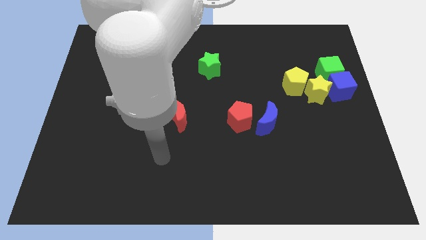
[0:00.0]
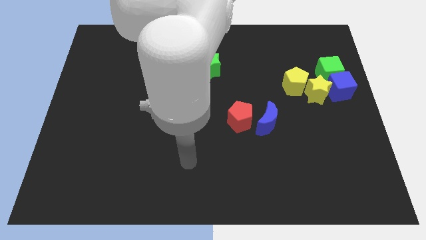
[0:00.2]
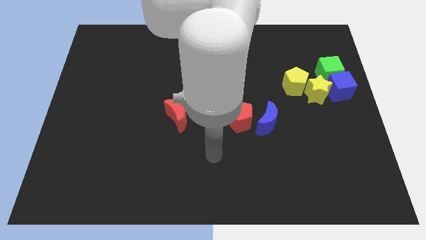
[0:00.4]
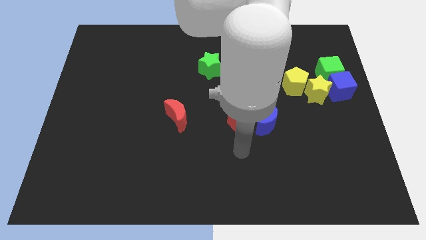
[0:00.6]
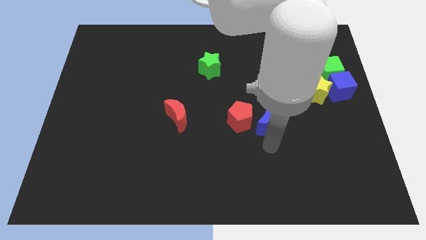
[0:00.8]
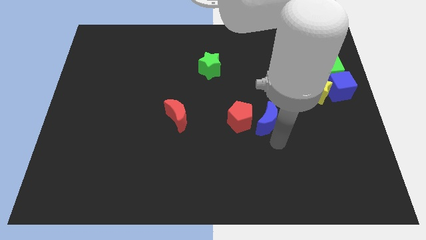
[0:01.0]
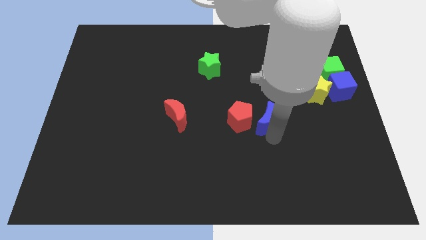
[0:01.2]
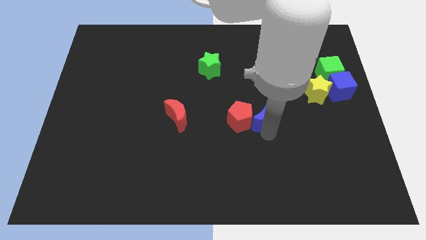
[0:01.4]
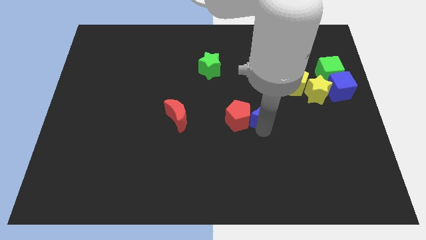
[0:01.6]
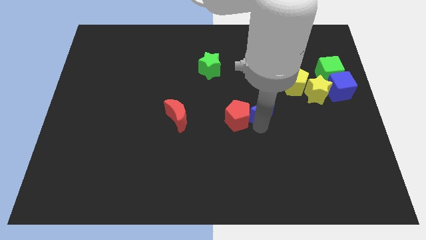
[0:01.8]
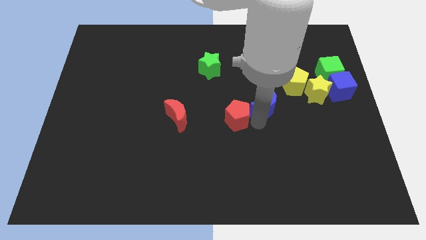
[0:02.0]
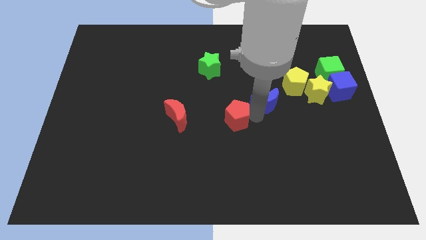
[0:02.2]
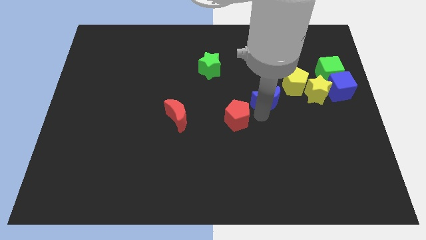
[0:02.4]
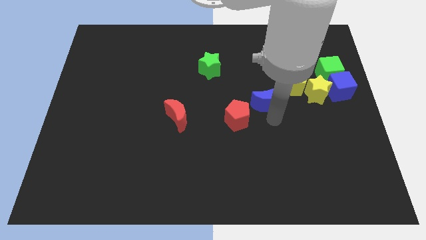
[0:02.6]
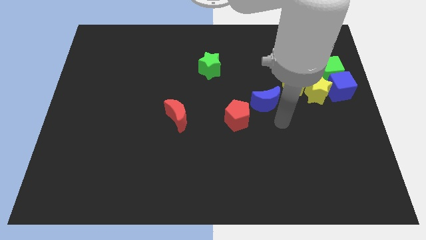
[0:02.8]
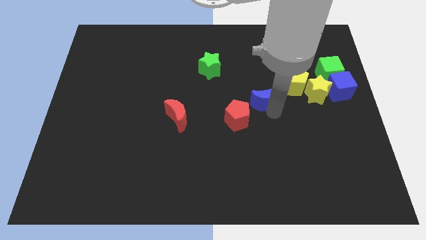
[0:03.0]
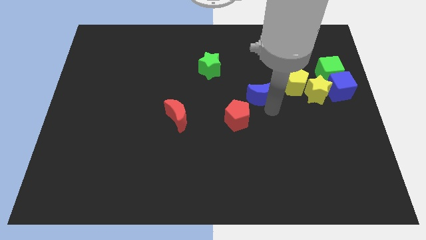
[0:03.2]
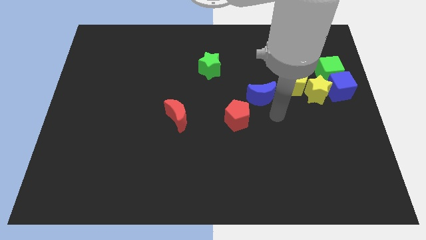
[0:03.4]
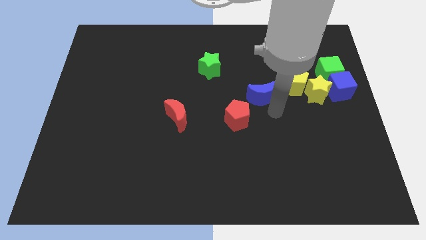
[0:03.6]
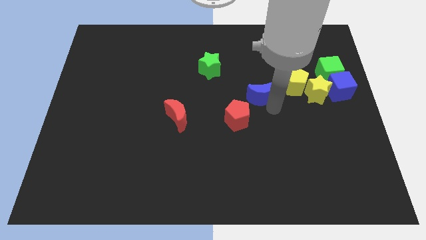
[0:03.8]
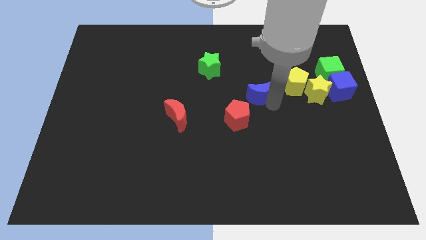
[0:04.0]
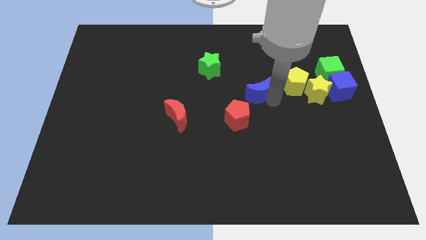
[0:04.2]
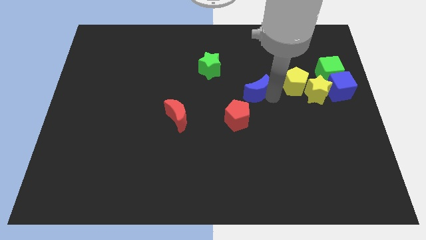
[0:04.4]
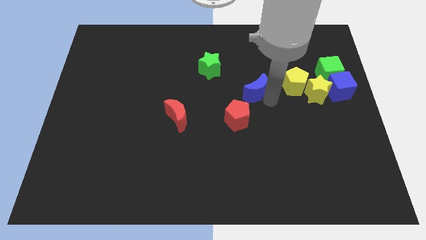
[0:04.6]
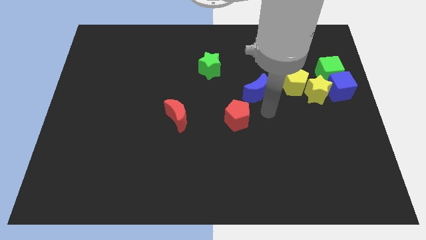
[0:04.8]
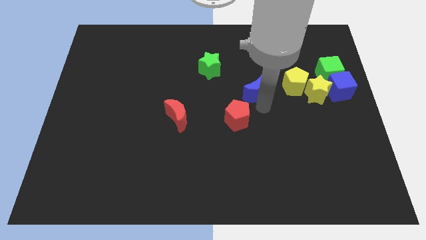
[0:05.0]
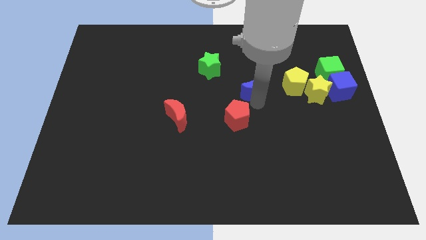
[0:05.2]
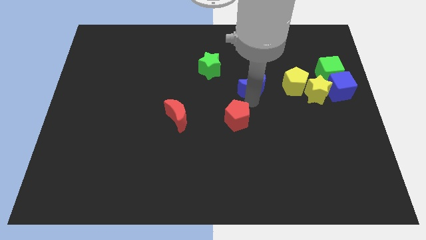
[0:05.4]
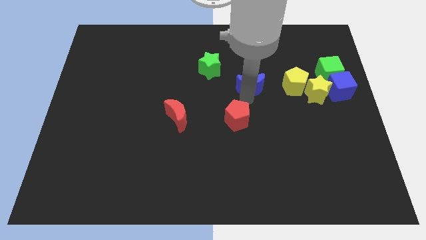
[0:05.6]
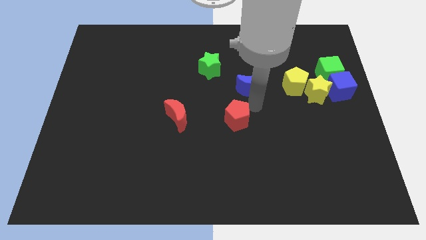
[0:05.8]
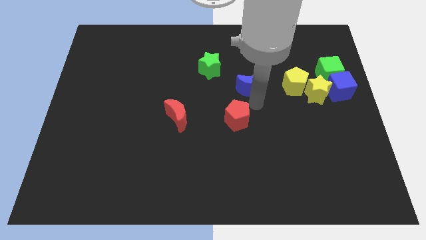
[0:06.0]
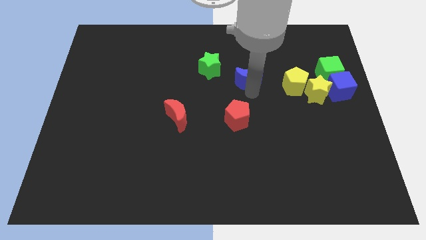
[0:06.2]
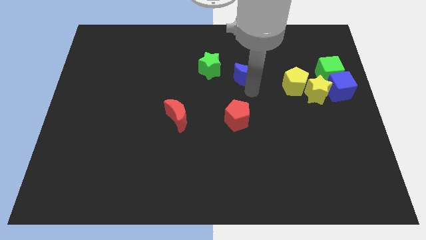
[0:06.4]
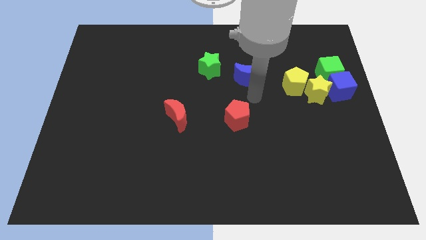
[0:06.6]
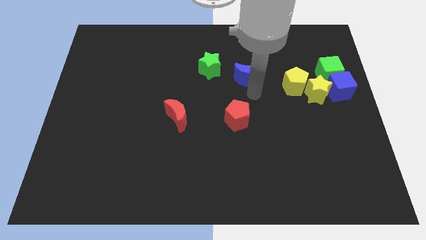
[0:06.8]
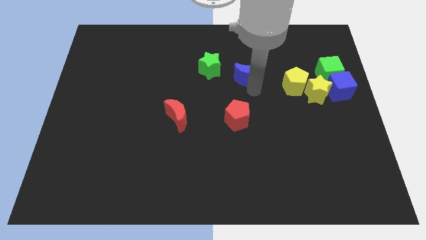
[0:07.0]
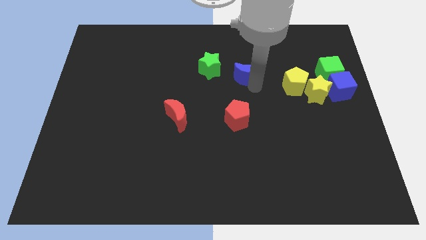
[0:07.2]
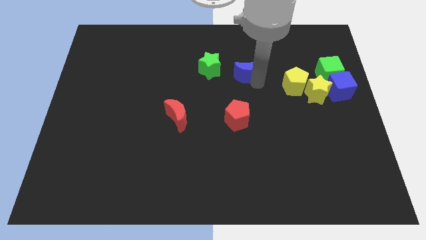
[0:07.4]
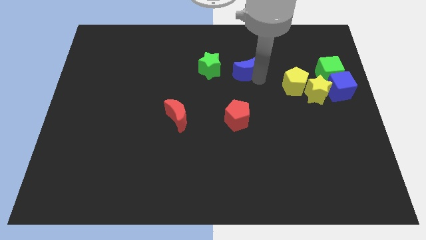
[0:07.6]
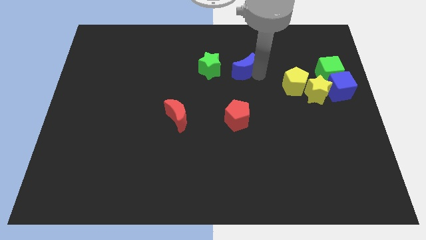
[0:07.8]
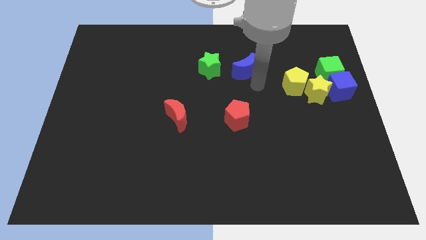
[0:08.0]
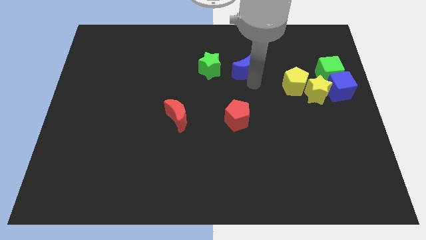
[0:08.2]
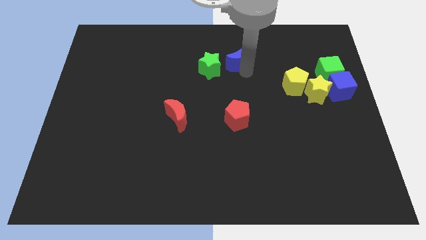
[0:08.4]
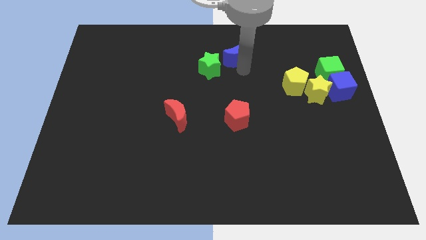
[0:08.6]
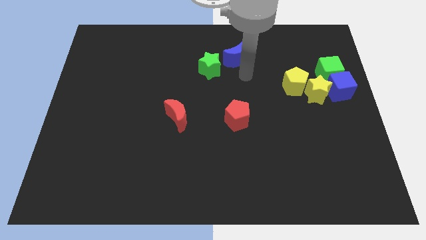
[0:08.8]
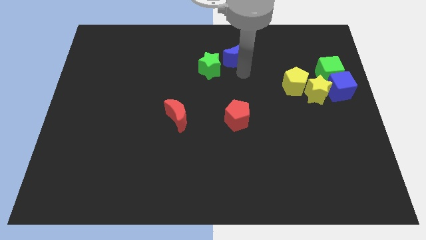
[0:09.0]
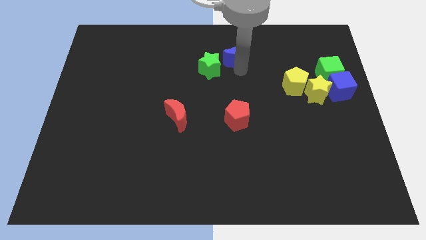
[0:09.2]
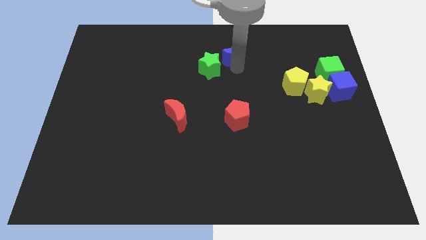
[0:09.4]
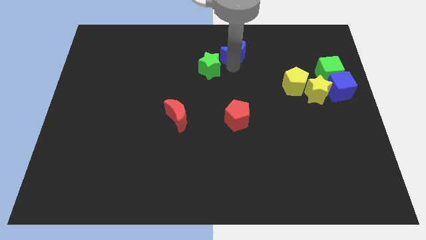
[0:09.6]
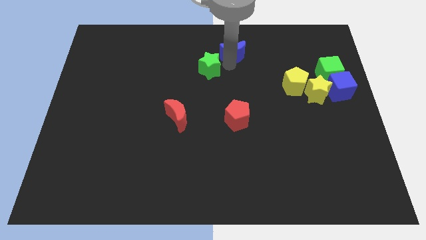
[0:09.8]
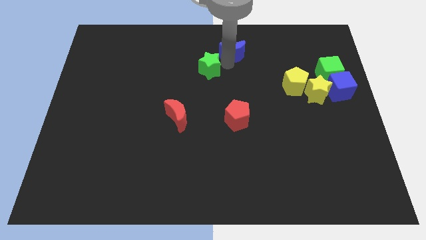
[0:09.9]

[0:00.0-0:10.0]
move the blue moon to the towards your base

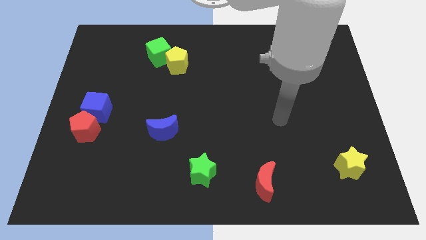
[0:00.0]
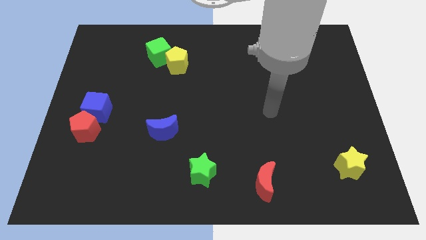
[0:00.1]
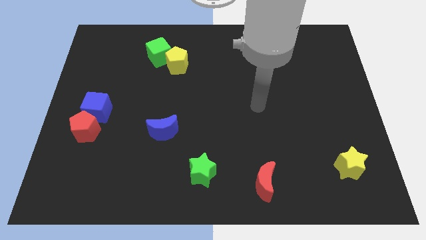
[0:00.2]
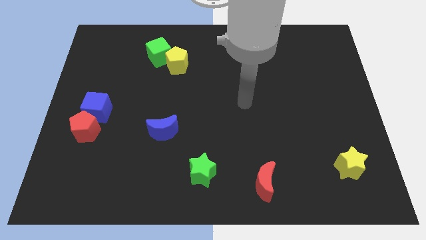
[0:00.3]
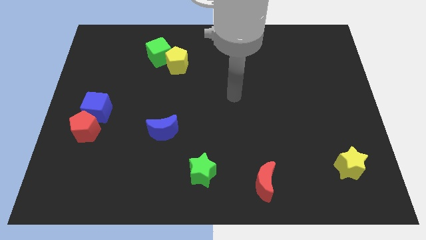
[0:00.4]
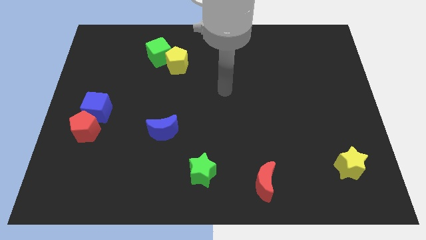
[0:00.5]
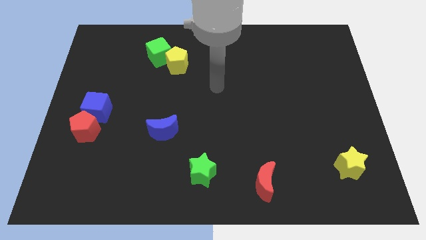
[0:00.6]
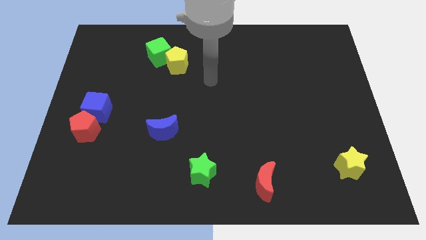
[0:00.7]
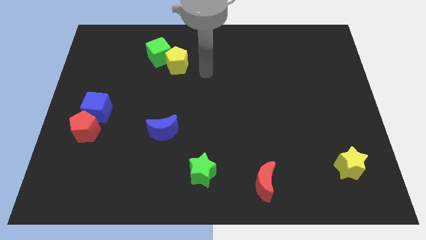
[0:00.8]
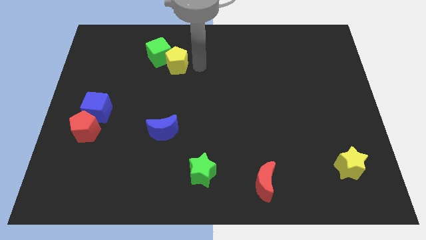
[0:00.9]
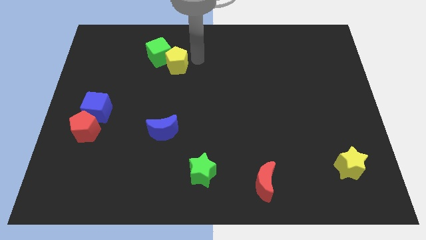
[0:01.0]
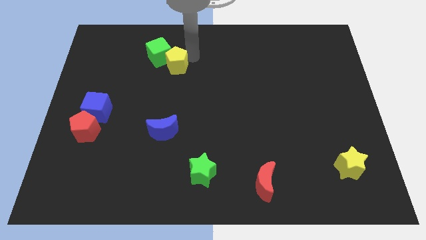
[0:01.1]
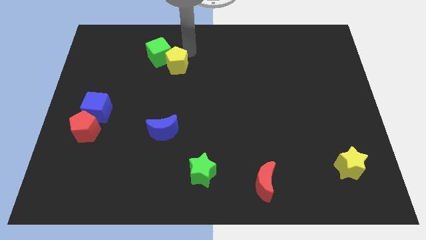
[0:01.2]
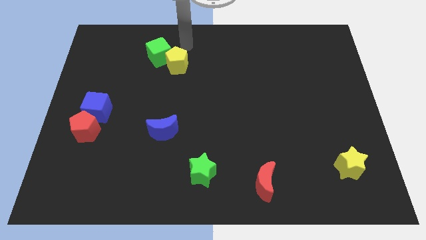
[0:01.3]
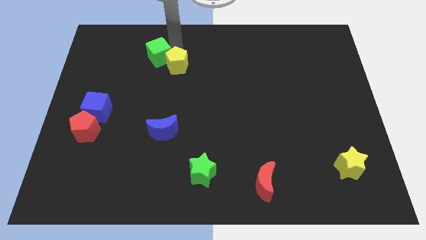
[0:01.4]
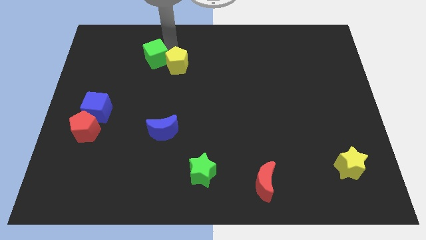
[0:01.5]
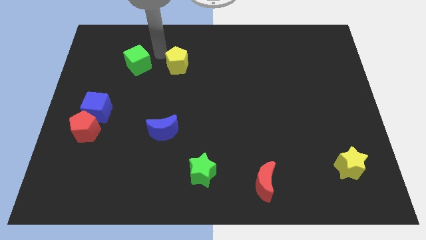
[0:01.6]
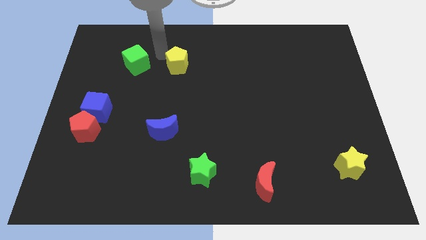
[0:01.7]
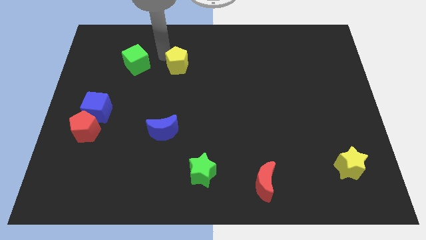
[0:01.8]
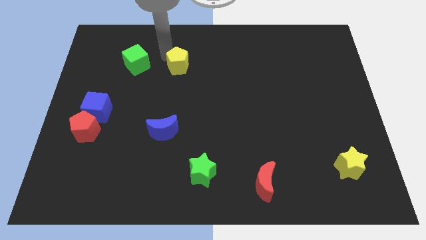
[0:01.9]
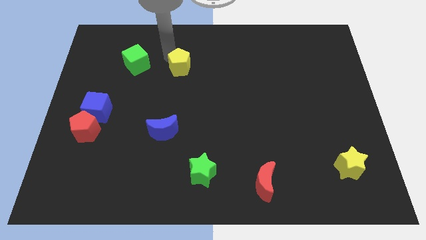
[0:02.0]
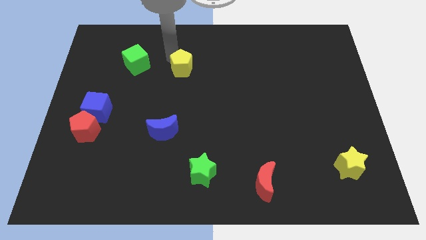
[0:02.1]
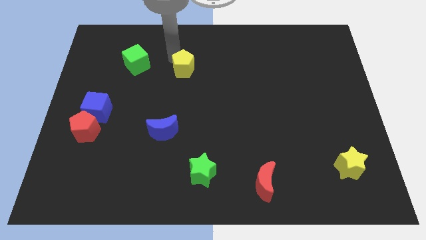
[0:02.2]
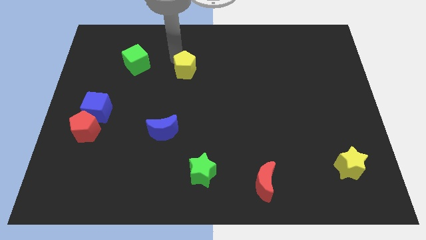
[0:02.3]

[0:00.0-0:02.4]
slide the yellow pentagon to the center of the board
